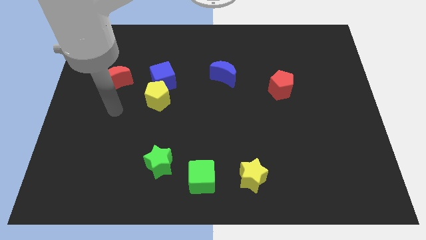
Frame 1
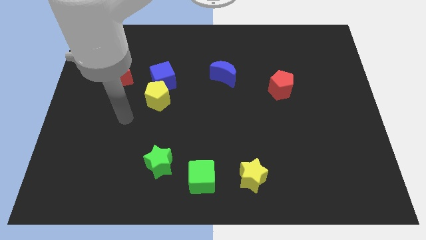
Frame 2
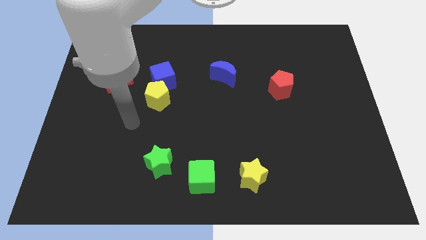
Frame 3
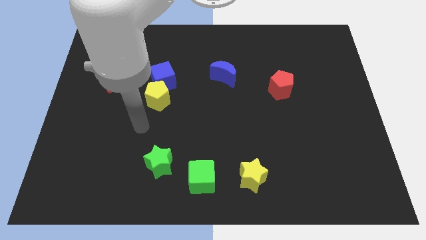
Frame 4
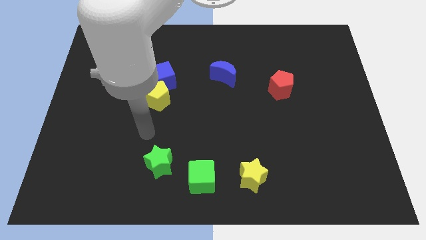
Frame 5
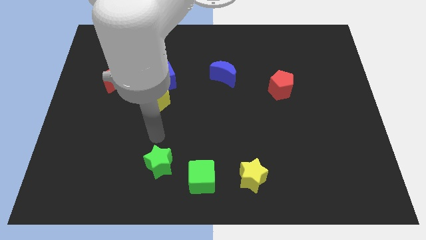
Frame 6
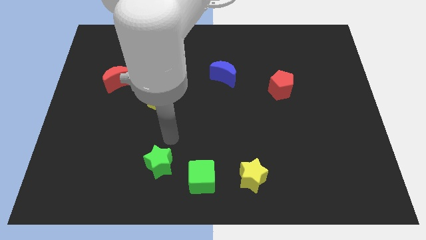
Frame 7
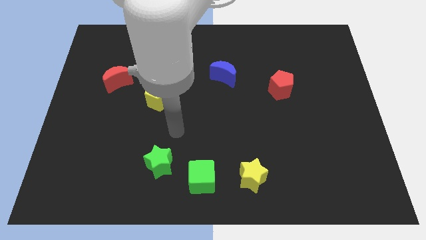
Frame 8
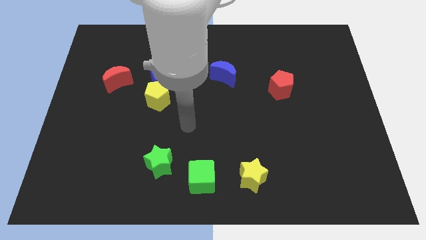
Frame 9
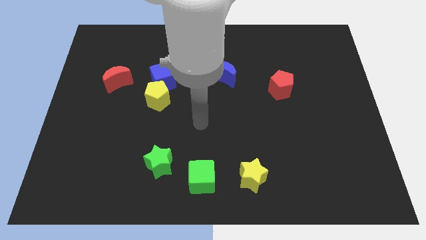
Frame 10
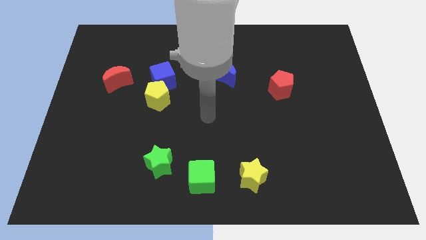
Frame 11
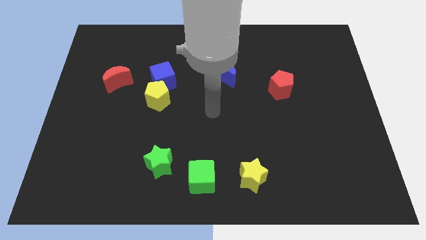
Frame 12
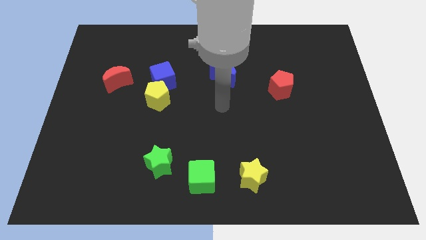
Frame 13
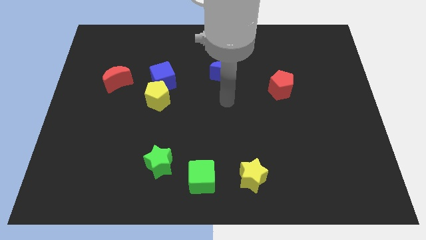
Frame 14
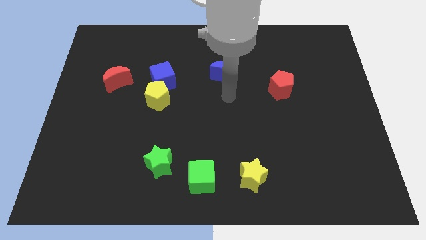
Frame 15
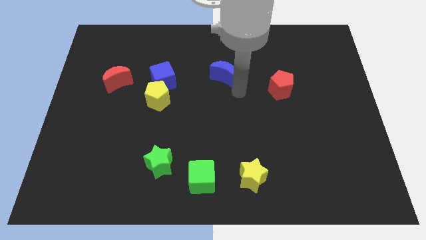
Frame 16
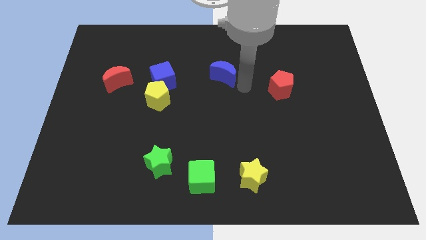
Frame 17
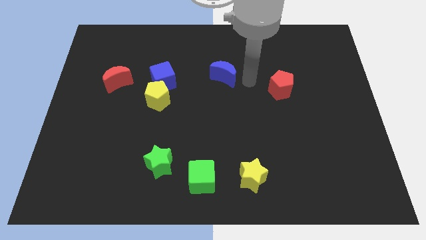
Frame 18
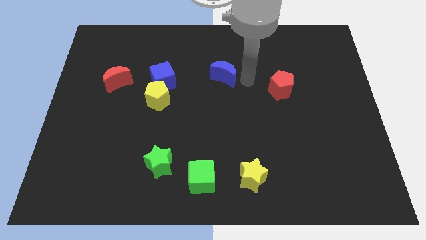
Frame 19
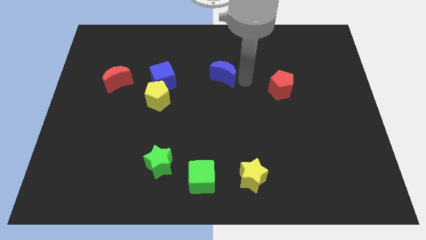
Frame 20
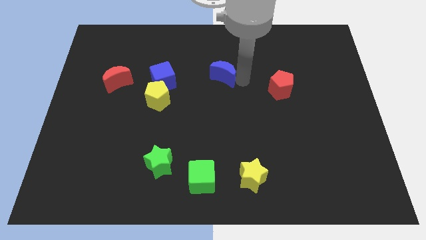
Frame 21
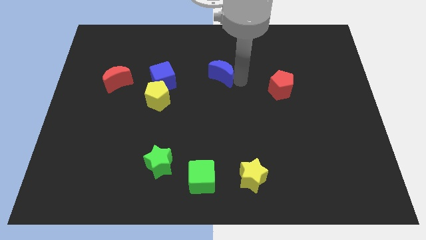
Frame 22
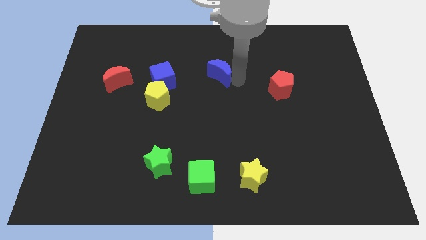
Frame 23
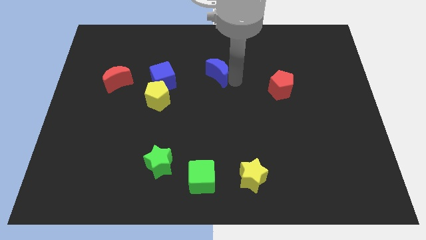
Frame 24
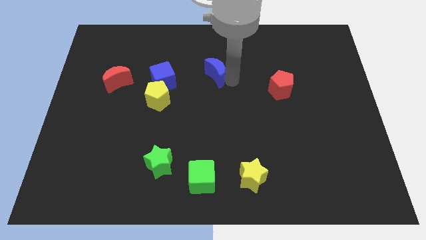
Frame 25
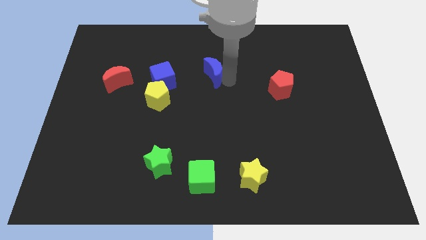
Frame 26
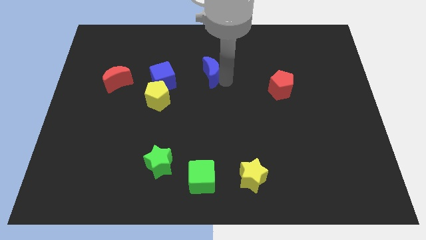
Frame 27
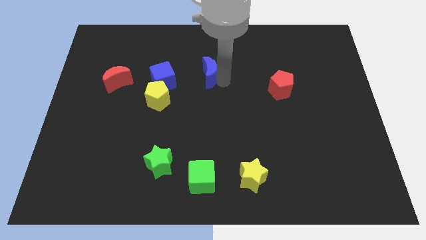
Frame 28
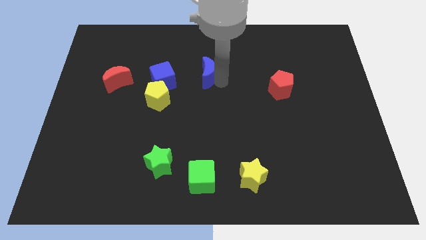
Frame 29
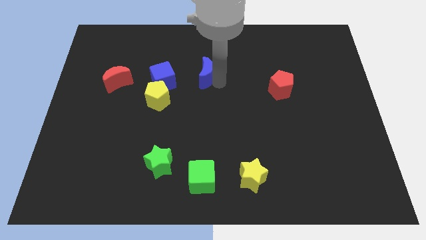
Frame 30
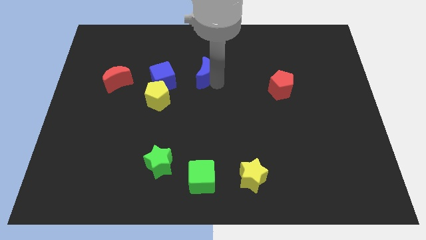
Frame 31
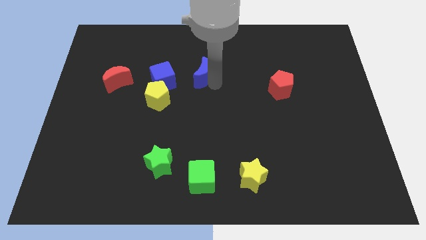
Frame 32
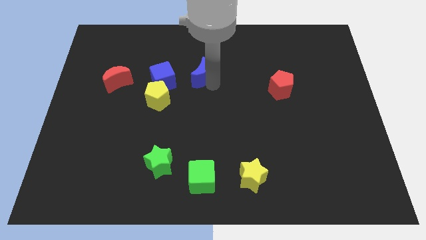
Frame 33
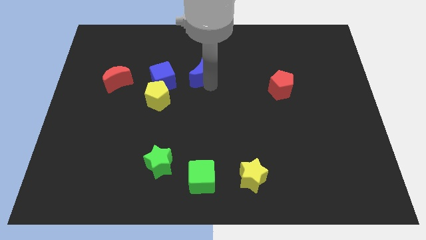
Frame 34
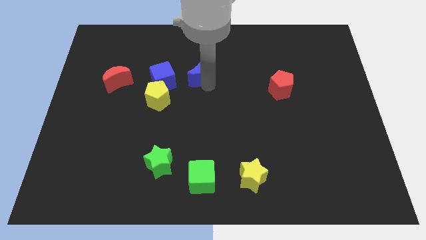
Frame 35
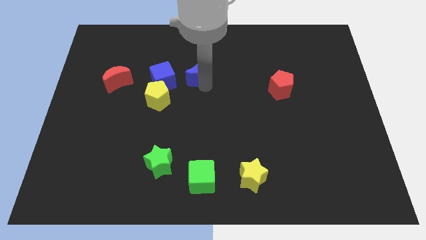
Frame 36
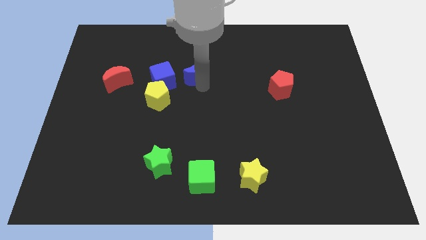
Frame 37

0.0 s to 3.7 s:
slide the blue moon a bit left

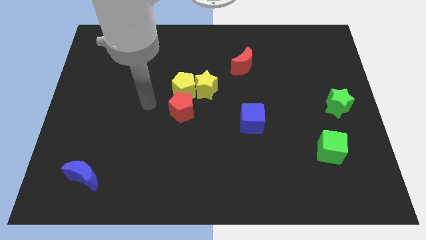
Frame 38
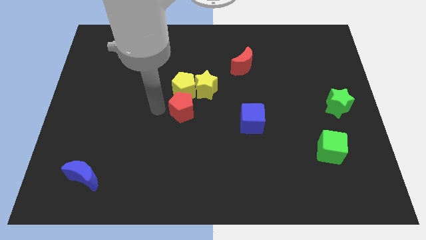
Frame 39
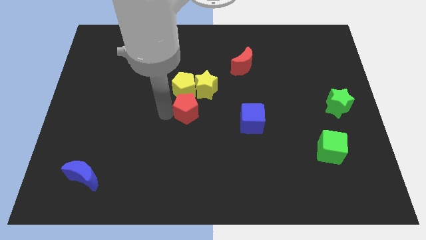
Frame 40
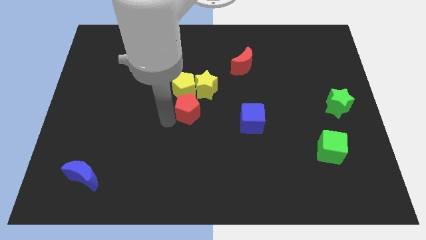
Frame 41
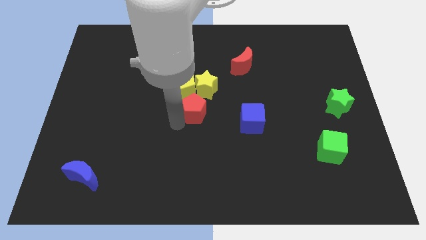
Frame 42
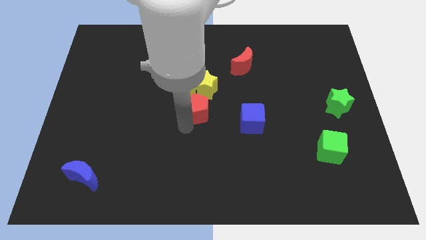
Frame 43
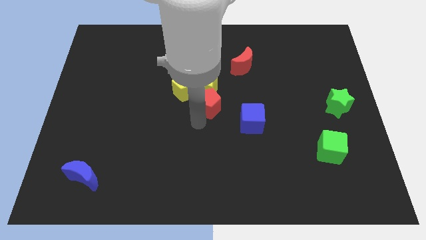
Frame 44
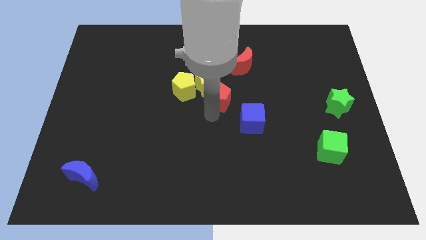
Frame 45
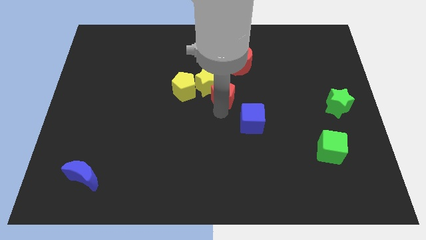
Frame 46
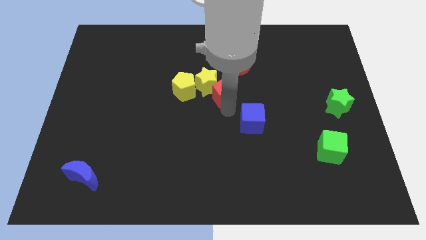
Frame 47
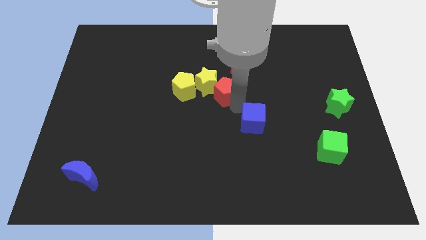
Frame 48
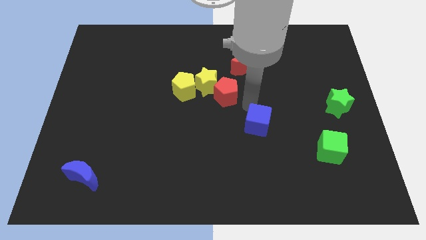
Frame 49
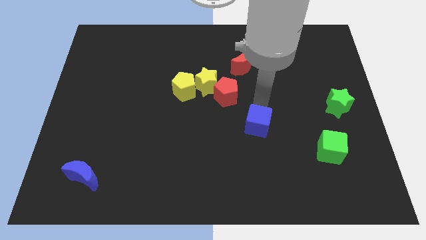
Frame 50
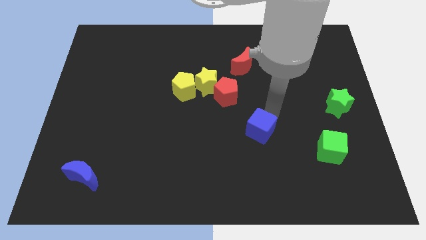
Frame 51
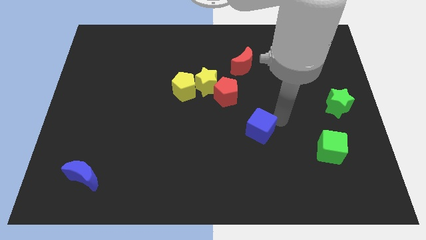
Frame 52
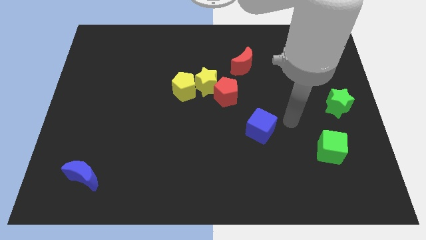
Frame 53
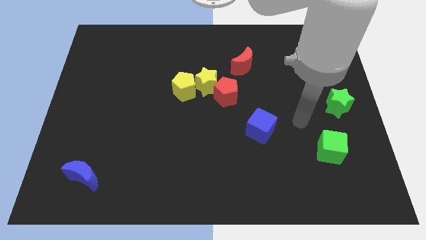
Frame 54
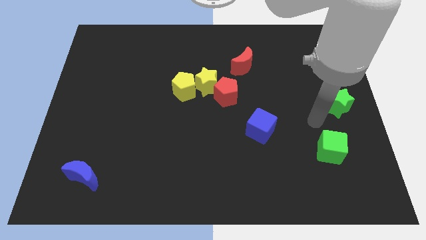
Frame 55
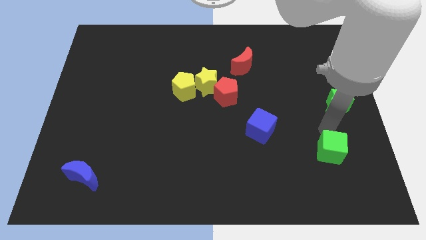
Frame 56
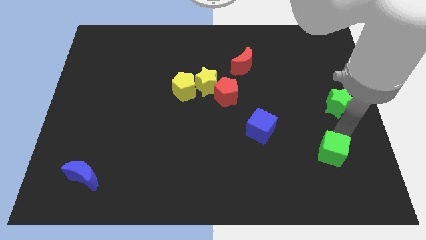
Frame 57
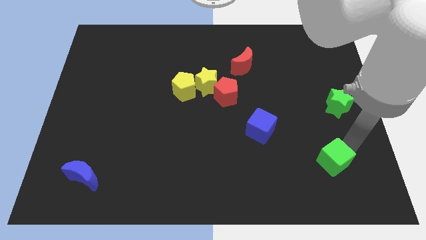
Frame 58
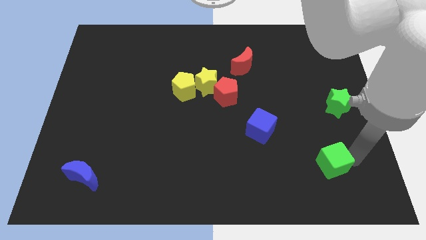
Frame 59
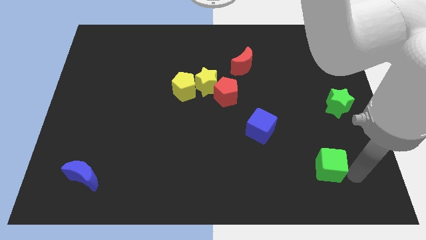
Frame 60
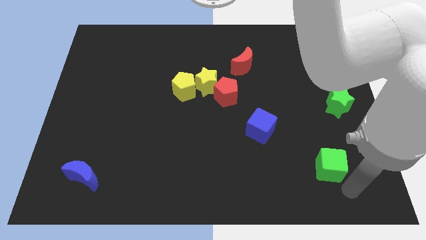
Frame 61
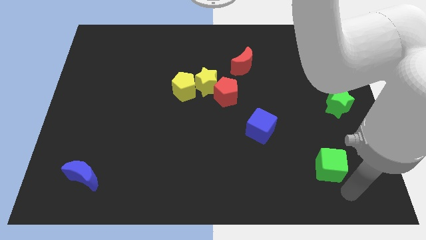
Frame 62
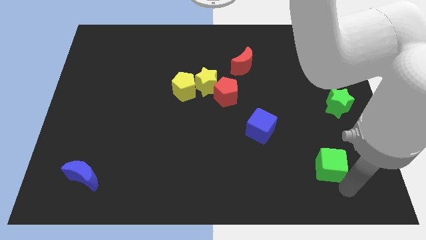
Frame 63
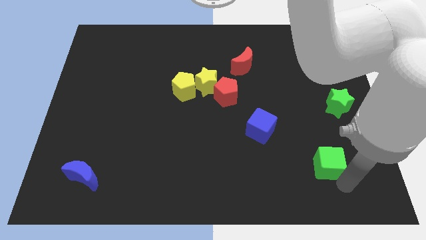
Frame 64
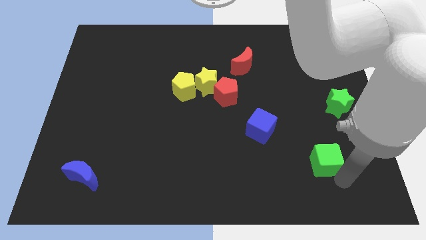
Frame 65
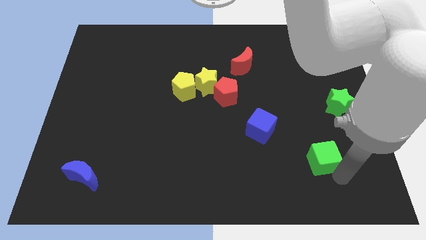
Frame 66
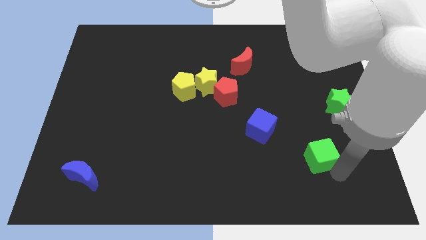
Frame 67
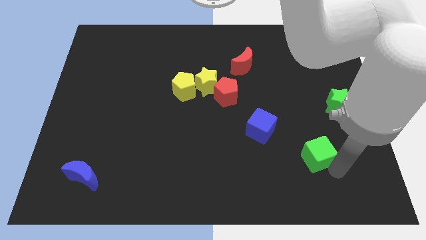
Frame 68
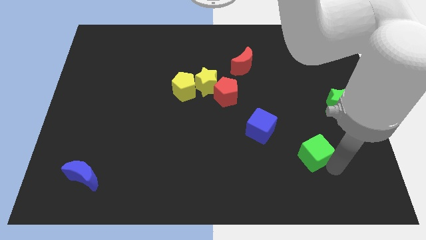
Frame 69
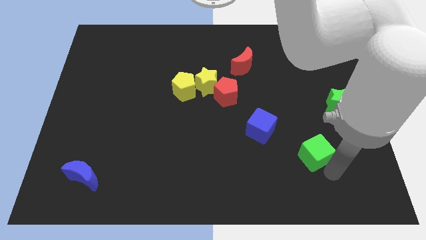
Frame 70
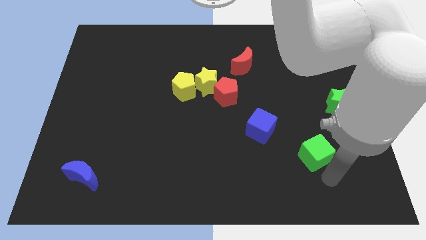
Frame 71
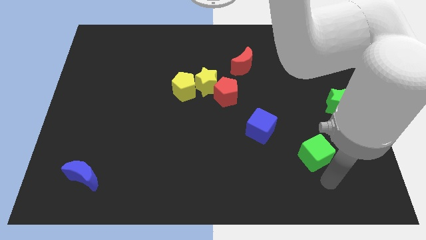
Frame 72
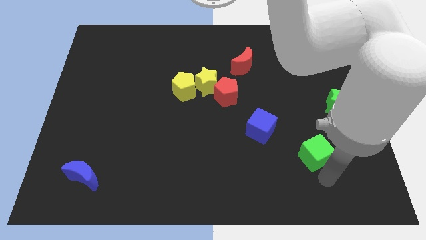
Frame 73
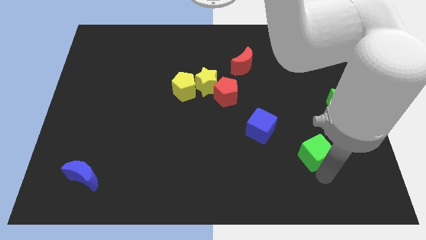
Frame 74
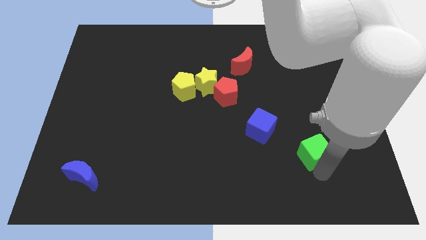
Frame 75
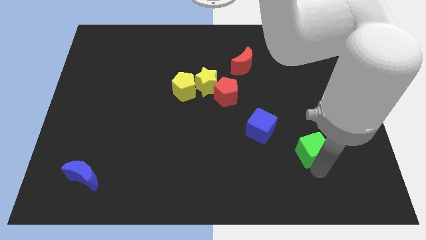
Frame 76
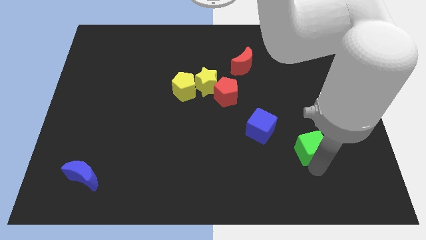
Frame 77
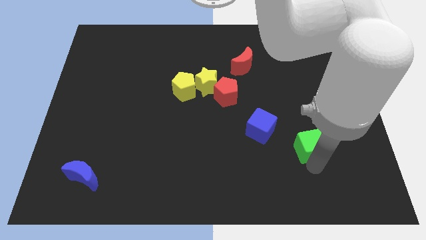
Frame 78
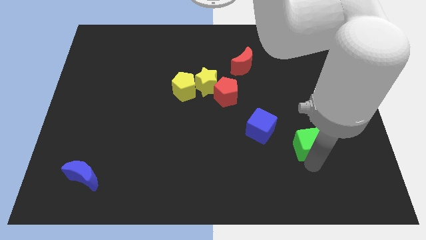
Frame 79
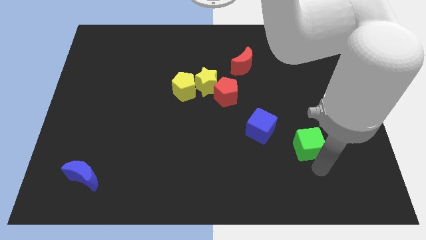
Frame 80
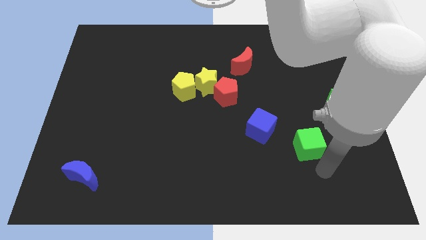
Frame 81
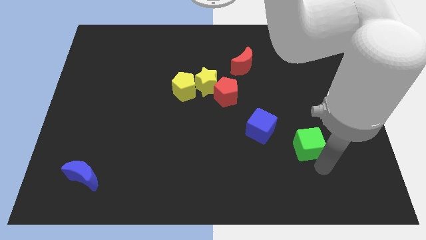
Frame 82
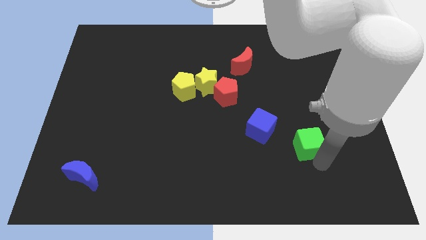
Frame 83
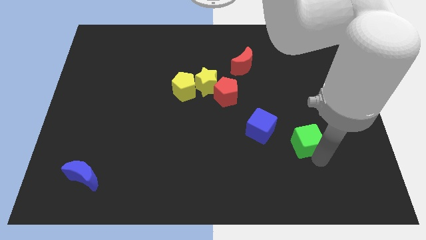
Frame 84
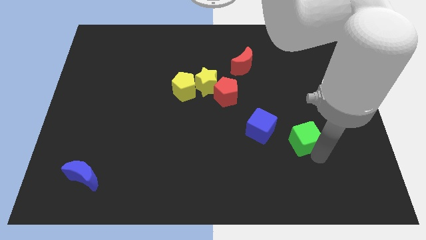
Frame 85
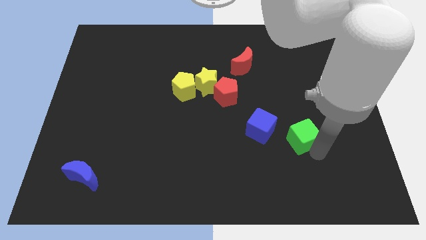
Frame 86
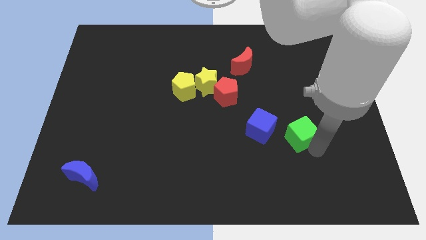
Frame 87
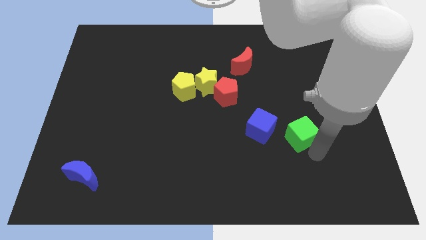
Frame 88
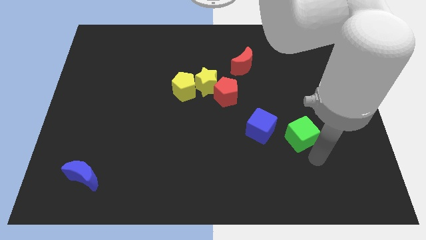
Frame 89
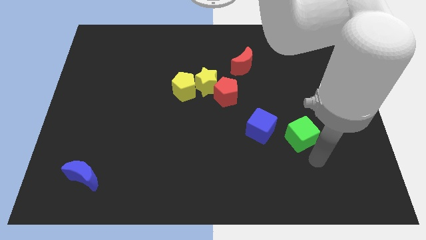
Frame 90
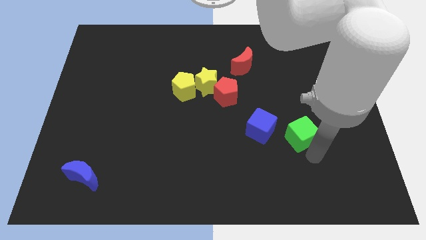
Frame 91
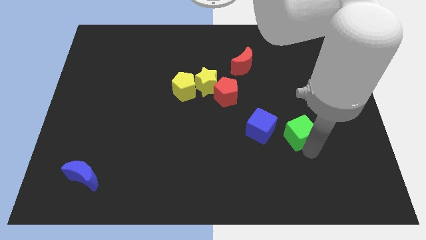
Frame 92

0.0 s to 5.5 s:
slide the green cube slightly diagonally upwards and left
